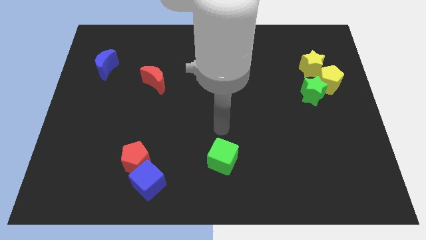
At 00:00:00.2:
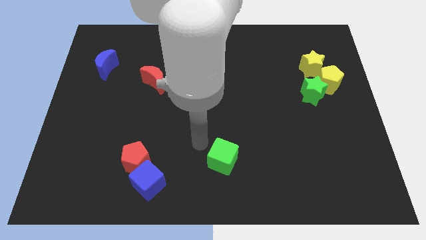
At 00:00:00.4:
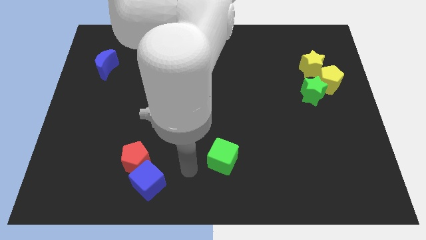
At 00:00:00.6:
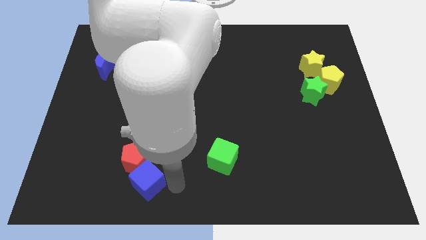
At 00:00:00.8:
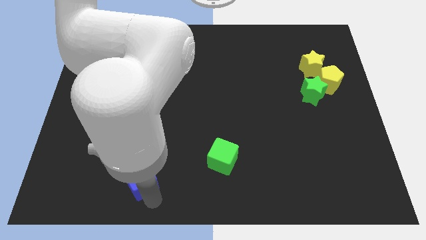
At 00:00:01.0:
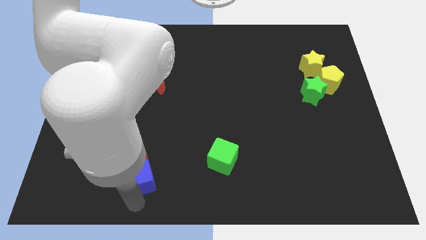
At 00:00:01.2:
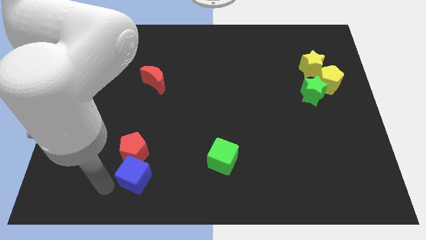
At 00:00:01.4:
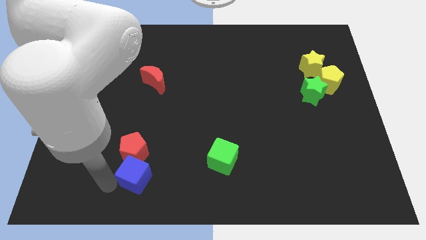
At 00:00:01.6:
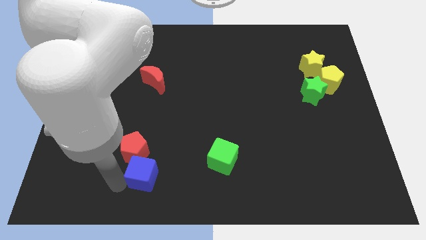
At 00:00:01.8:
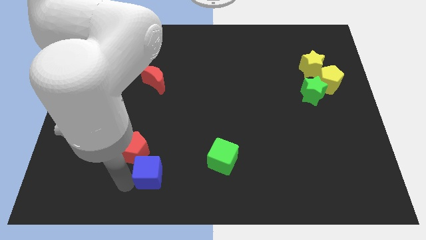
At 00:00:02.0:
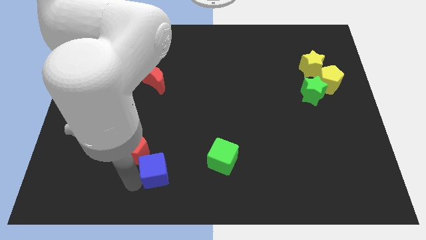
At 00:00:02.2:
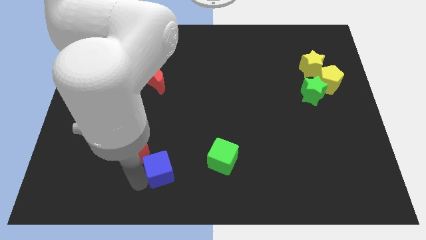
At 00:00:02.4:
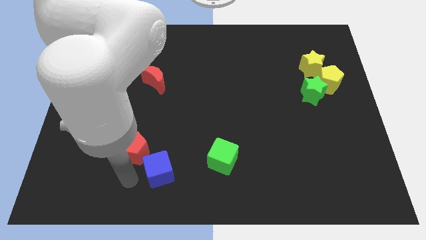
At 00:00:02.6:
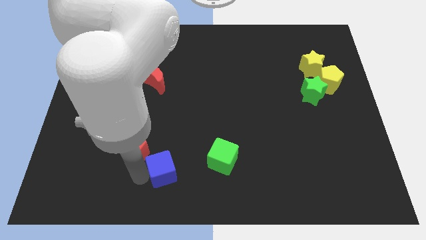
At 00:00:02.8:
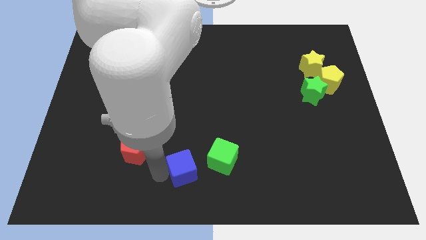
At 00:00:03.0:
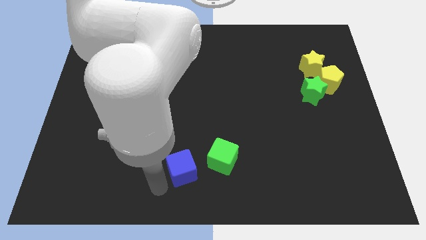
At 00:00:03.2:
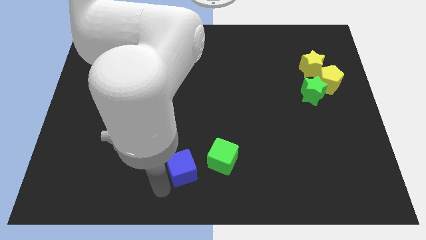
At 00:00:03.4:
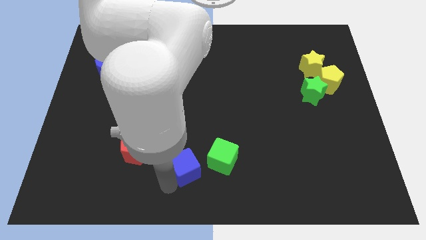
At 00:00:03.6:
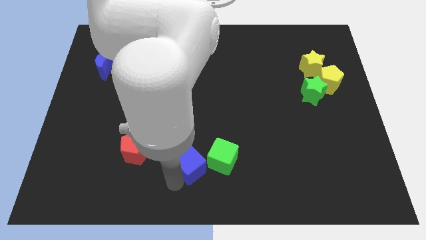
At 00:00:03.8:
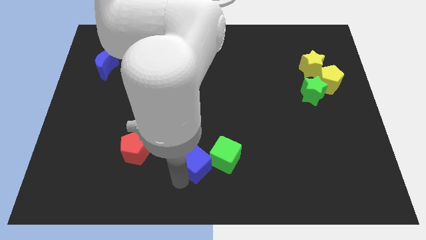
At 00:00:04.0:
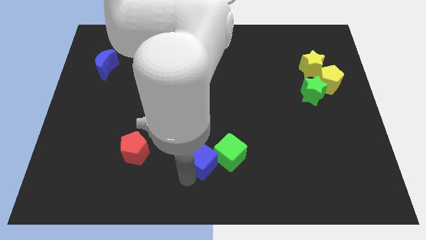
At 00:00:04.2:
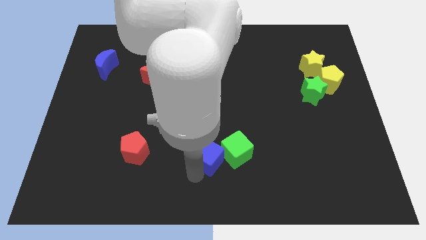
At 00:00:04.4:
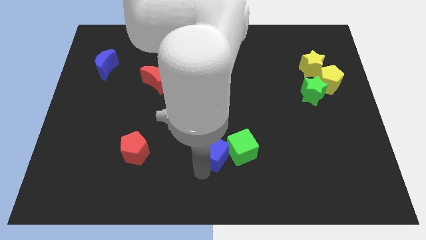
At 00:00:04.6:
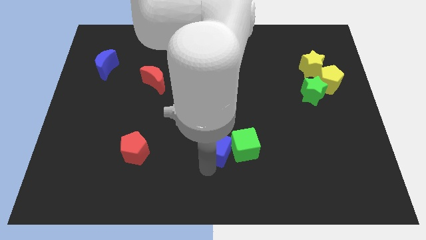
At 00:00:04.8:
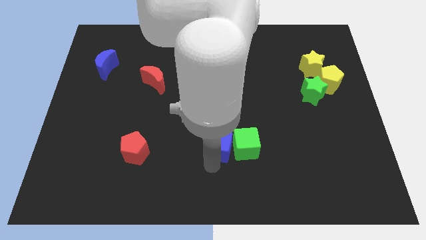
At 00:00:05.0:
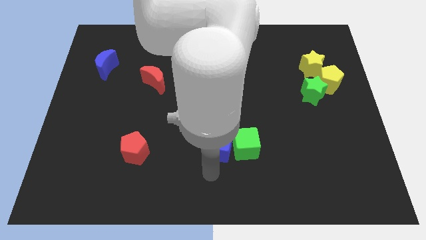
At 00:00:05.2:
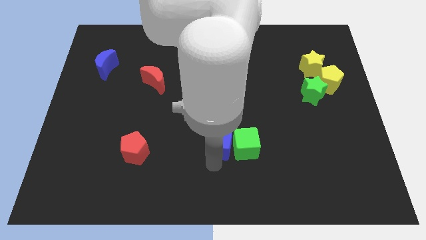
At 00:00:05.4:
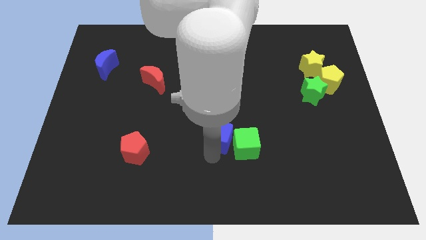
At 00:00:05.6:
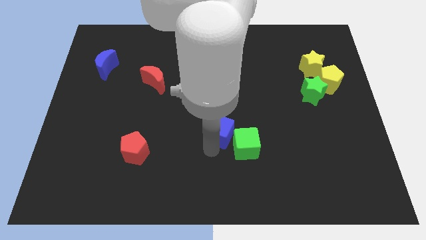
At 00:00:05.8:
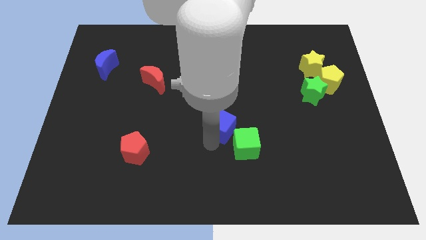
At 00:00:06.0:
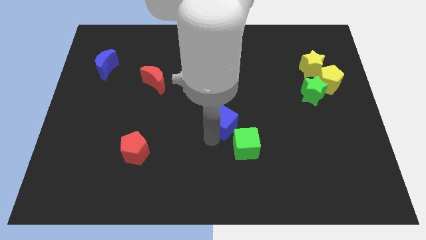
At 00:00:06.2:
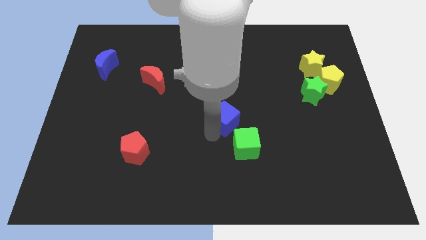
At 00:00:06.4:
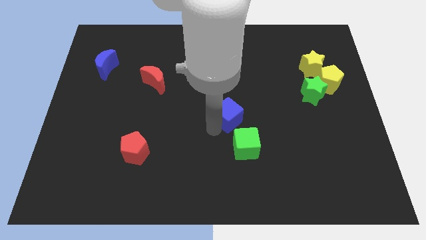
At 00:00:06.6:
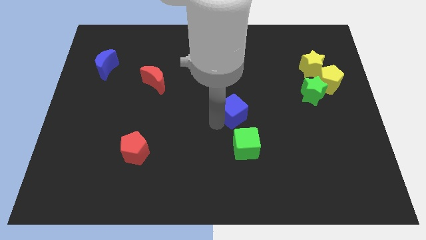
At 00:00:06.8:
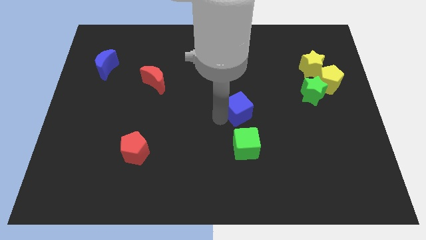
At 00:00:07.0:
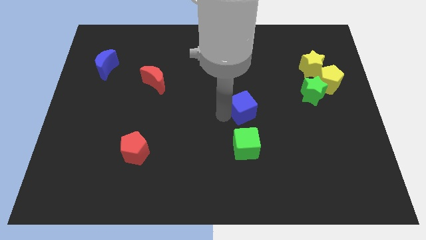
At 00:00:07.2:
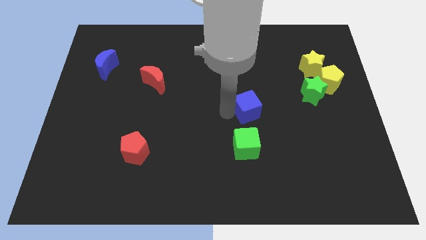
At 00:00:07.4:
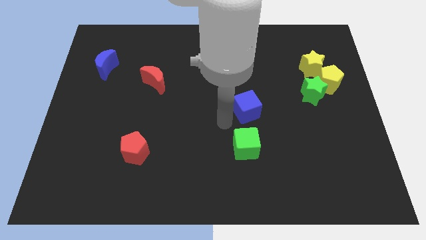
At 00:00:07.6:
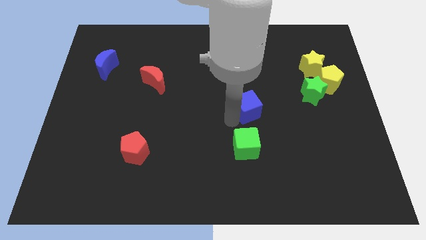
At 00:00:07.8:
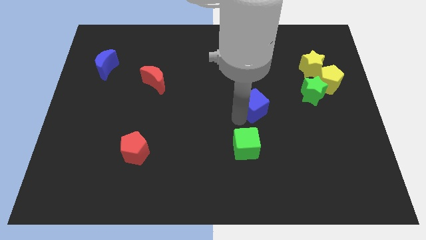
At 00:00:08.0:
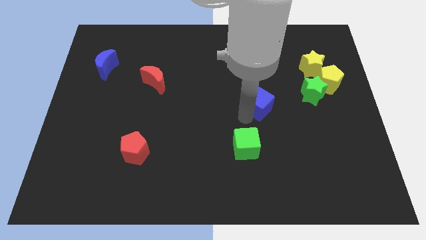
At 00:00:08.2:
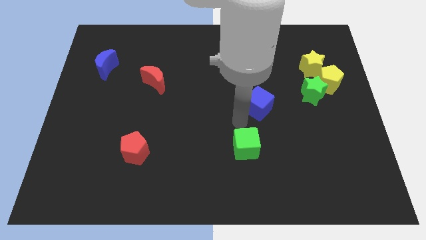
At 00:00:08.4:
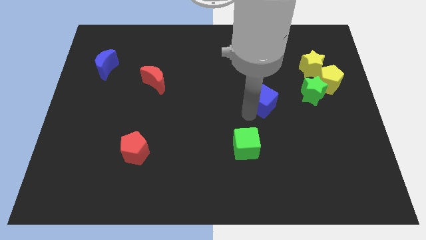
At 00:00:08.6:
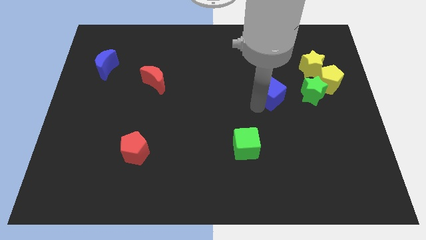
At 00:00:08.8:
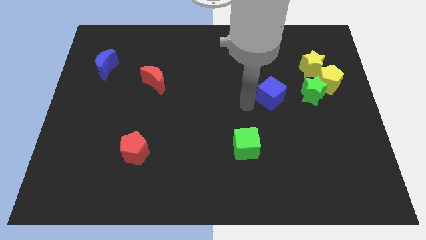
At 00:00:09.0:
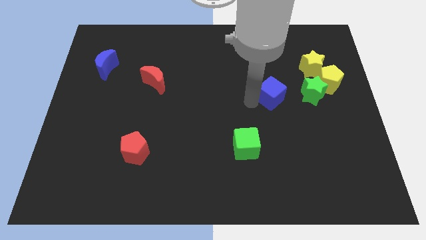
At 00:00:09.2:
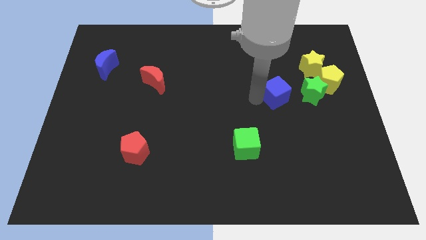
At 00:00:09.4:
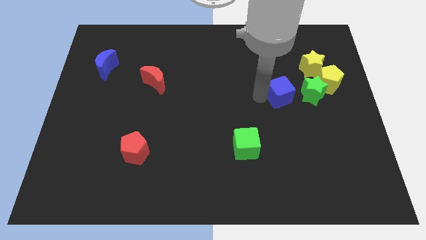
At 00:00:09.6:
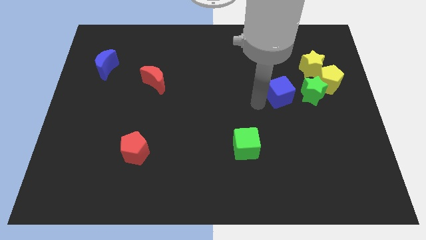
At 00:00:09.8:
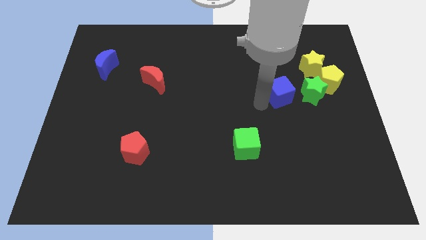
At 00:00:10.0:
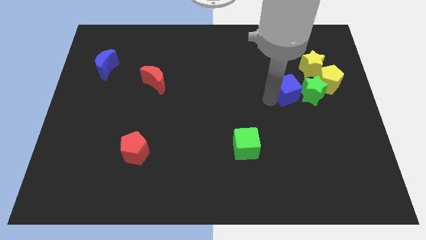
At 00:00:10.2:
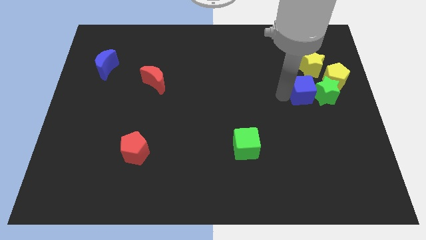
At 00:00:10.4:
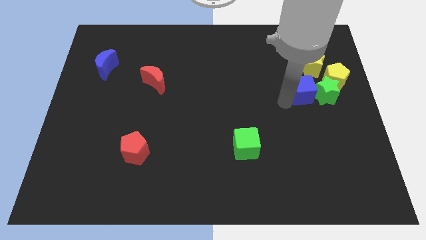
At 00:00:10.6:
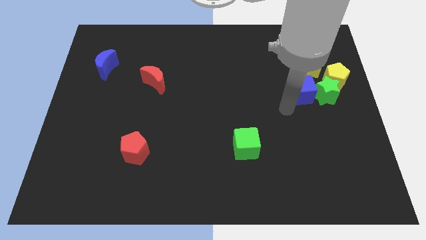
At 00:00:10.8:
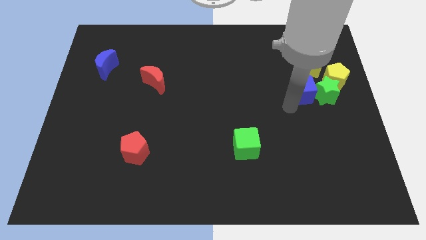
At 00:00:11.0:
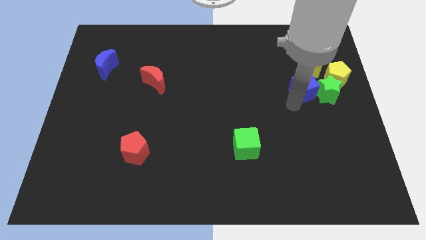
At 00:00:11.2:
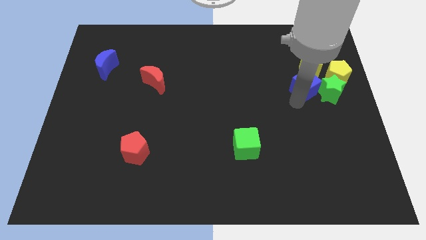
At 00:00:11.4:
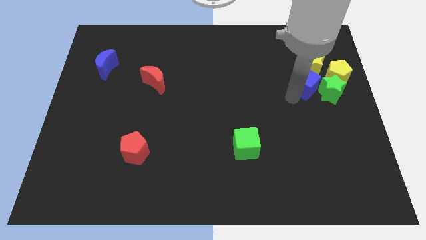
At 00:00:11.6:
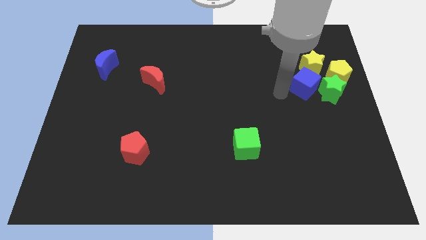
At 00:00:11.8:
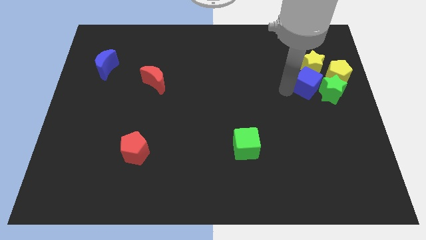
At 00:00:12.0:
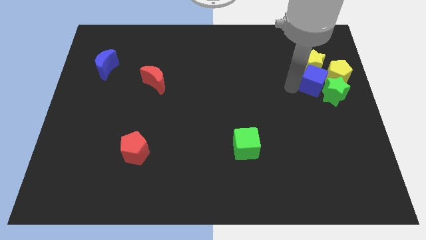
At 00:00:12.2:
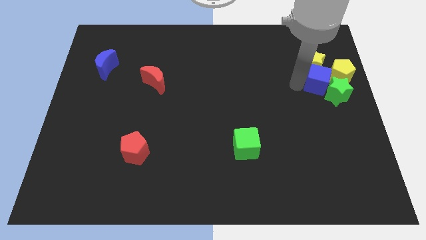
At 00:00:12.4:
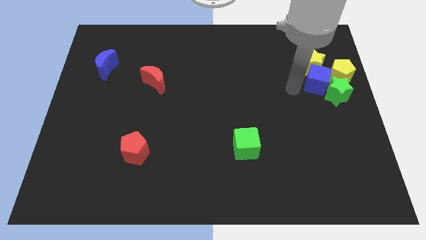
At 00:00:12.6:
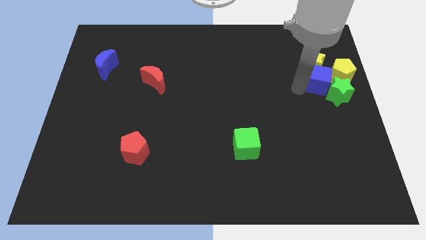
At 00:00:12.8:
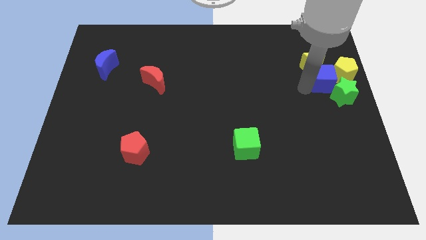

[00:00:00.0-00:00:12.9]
move the blue cube close to the yellow pentagon
